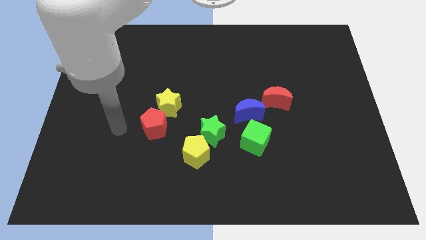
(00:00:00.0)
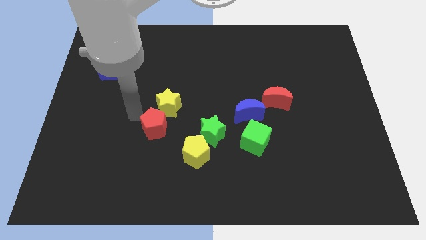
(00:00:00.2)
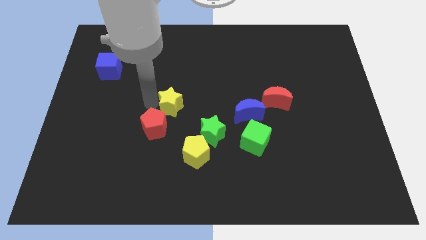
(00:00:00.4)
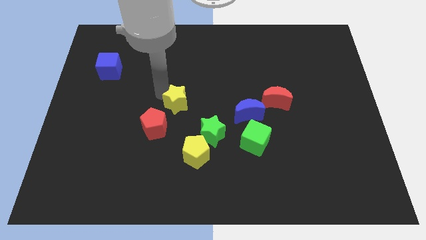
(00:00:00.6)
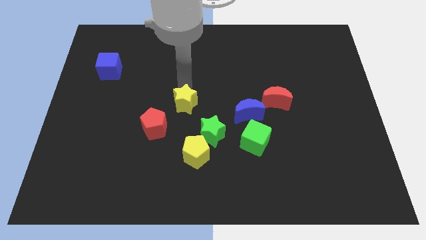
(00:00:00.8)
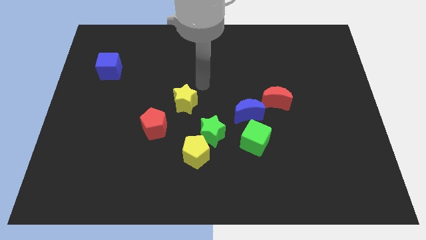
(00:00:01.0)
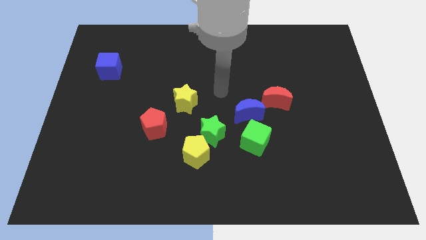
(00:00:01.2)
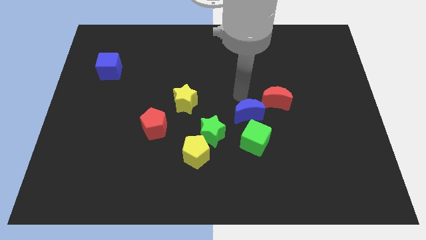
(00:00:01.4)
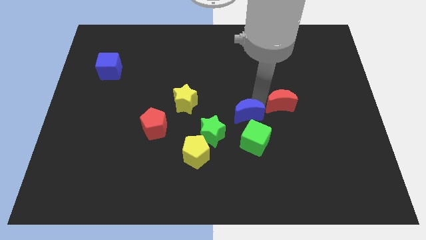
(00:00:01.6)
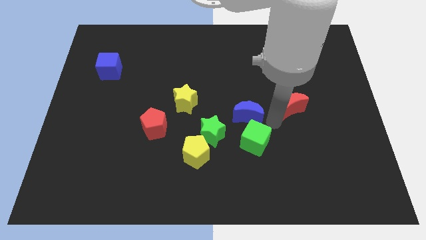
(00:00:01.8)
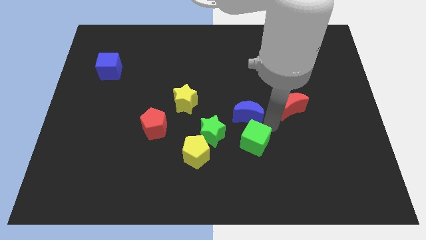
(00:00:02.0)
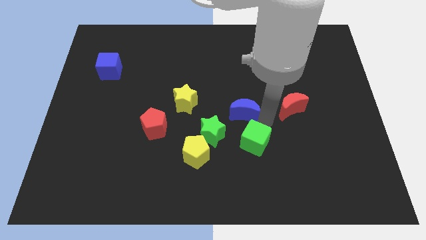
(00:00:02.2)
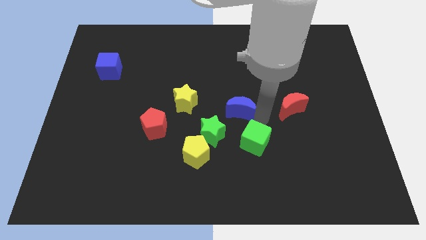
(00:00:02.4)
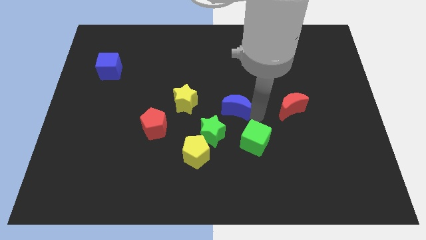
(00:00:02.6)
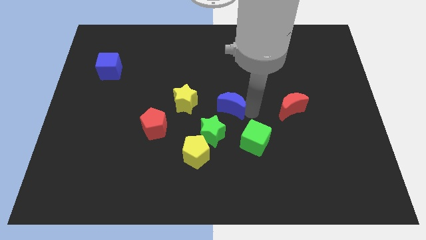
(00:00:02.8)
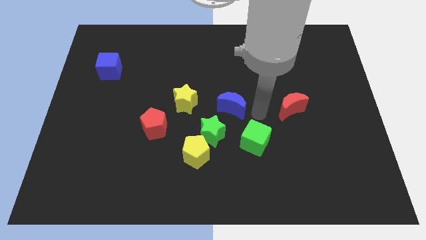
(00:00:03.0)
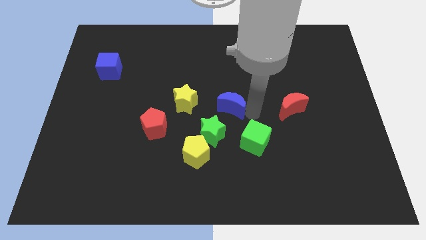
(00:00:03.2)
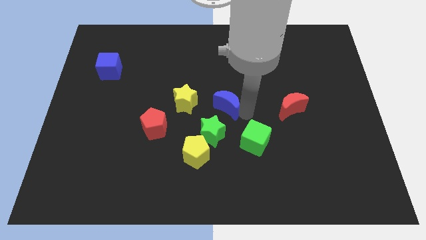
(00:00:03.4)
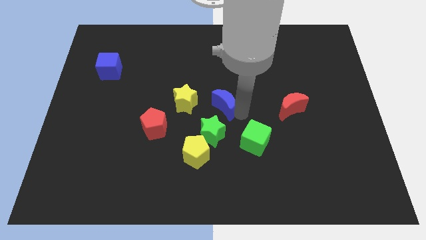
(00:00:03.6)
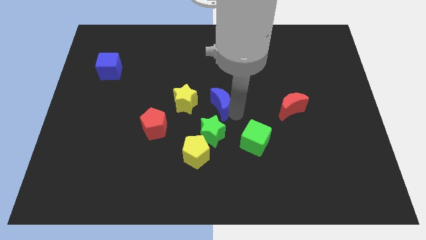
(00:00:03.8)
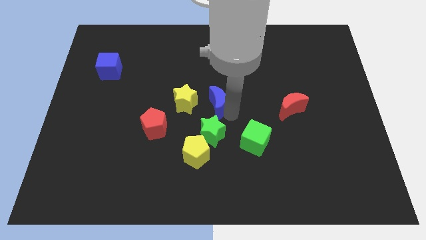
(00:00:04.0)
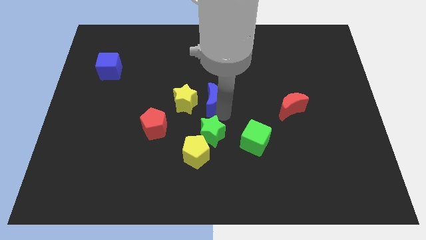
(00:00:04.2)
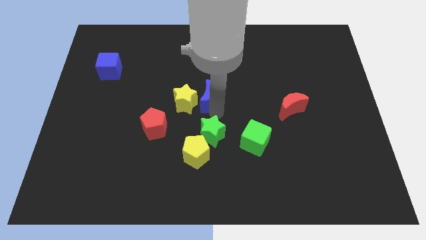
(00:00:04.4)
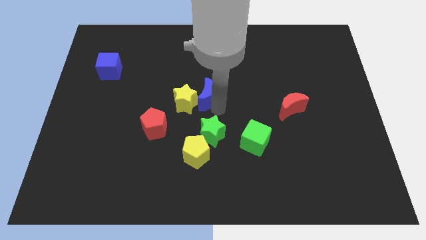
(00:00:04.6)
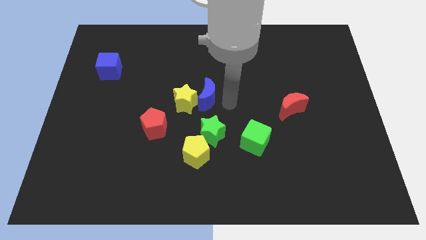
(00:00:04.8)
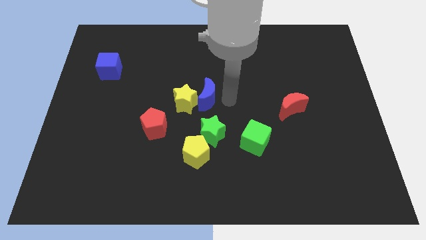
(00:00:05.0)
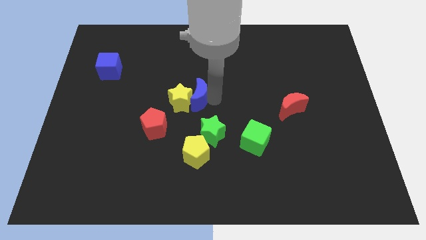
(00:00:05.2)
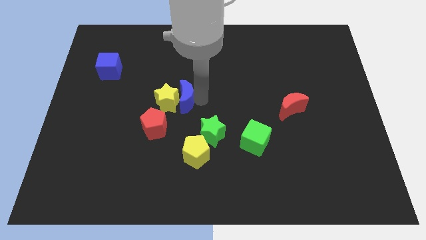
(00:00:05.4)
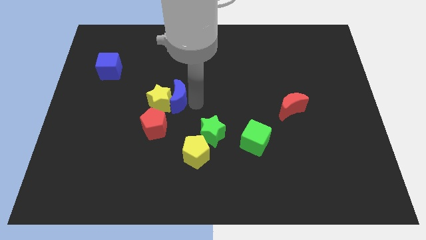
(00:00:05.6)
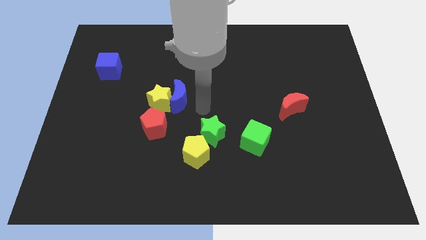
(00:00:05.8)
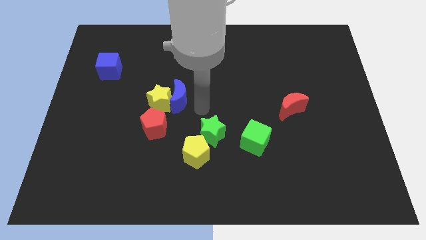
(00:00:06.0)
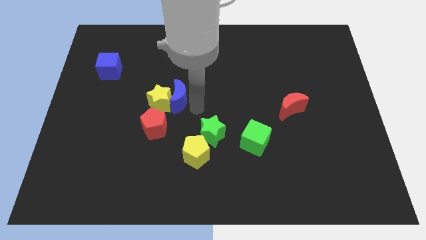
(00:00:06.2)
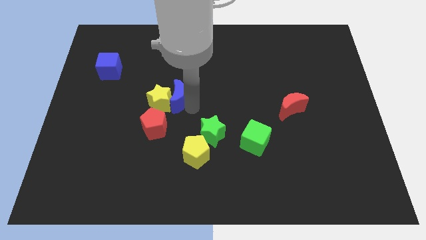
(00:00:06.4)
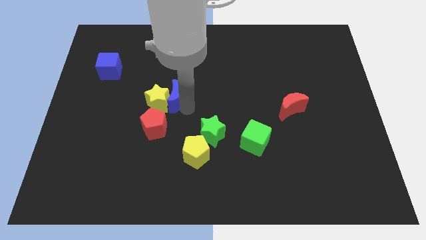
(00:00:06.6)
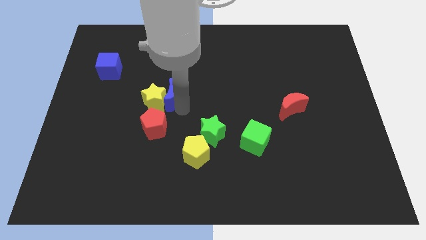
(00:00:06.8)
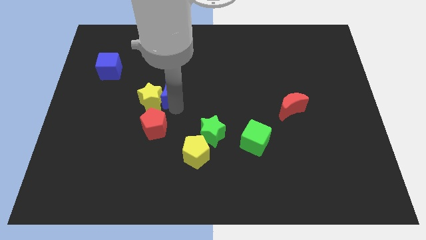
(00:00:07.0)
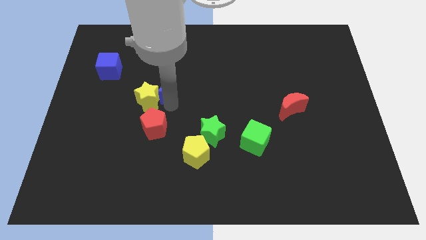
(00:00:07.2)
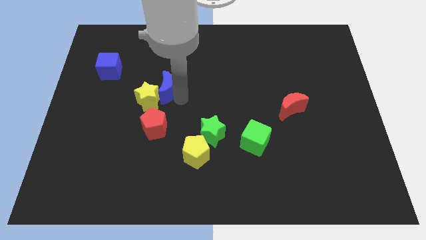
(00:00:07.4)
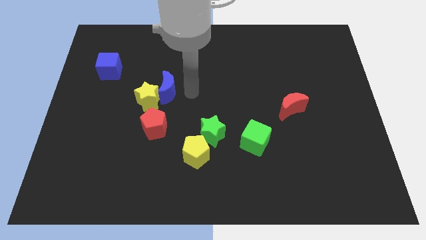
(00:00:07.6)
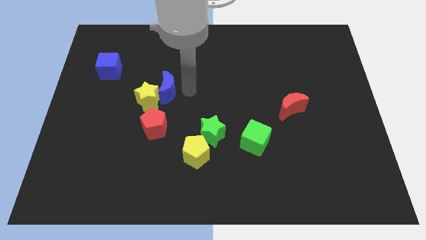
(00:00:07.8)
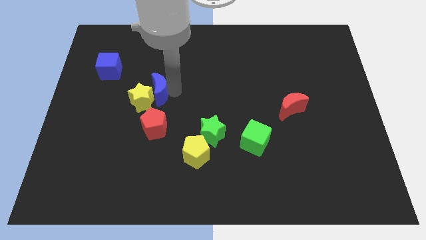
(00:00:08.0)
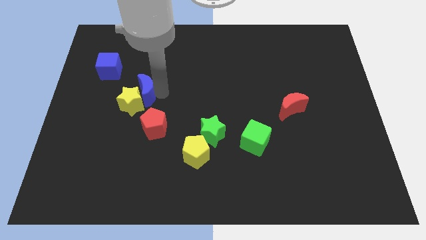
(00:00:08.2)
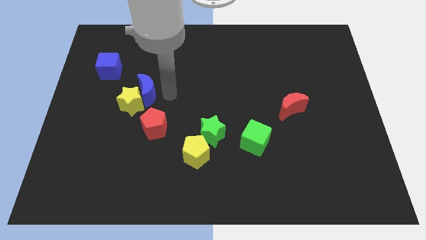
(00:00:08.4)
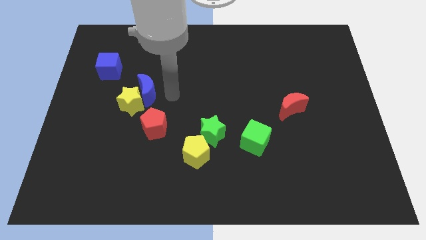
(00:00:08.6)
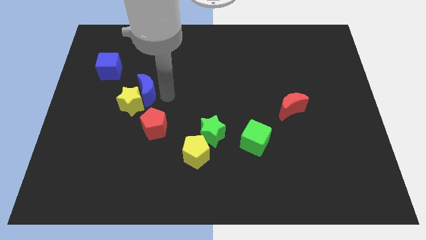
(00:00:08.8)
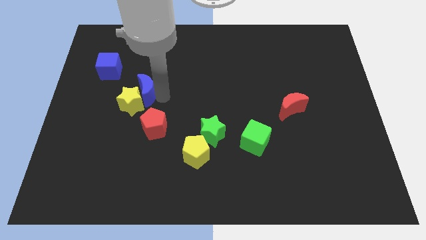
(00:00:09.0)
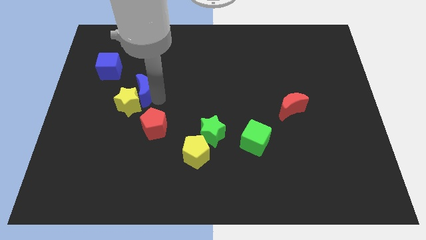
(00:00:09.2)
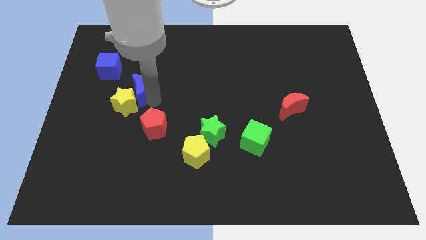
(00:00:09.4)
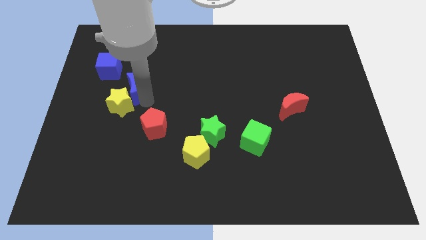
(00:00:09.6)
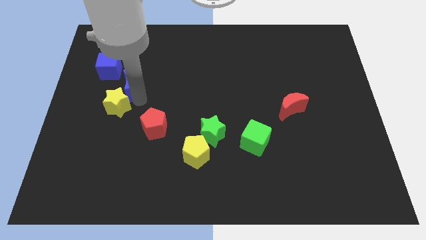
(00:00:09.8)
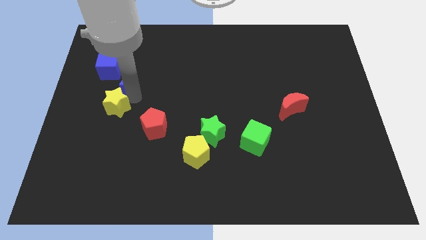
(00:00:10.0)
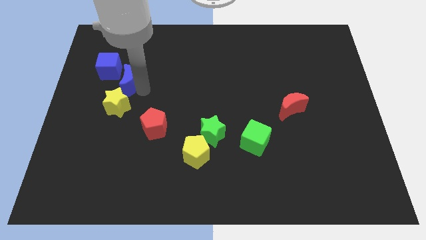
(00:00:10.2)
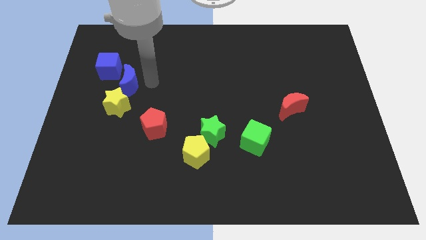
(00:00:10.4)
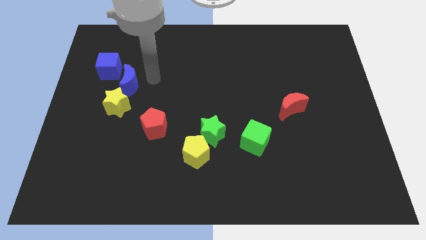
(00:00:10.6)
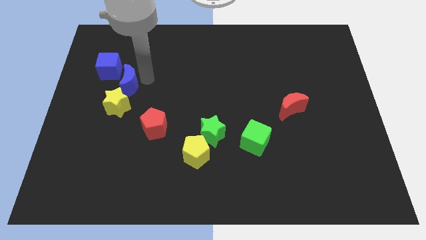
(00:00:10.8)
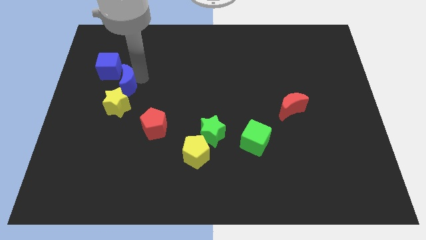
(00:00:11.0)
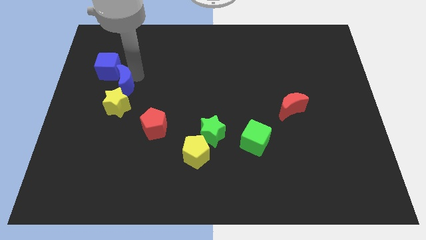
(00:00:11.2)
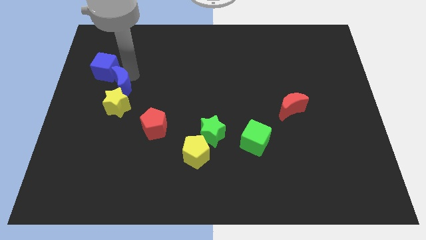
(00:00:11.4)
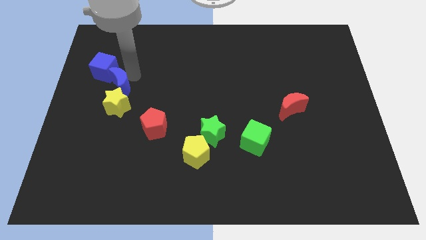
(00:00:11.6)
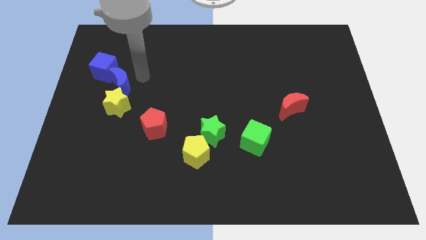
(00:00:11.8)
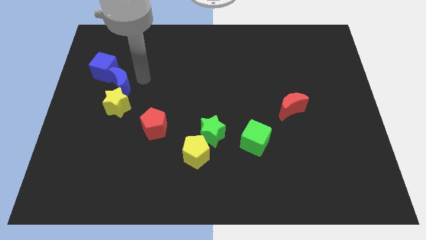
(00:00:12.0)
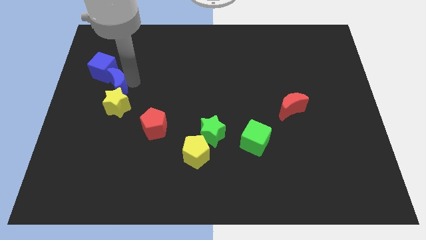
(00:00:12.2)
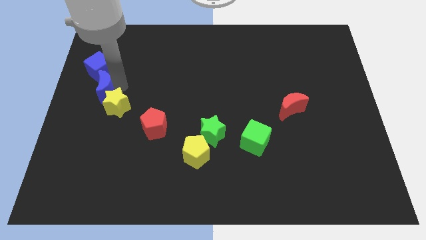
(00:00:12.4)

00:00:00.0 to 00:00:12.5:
put the blue moon to the left side of the board
